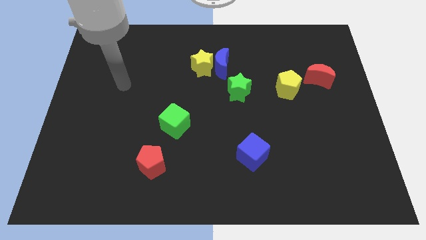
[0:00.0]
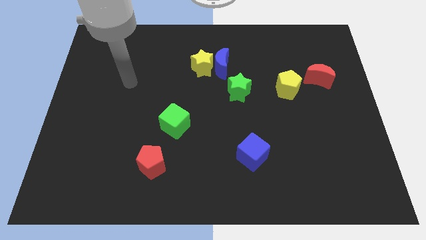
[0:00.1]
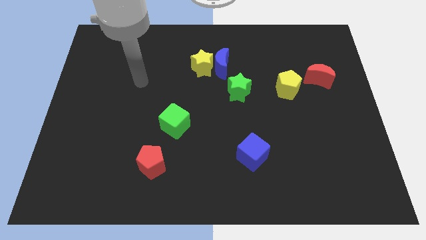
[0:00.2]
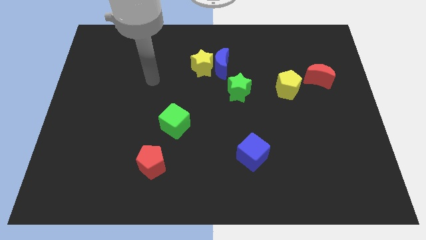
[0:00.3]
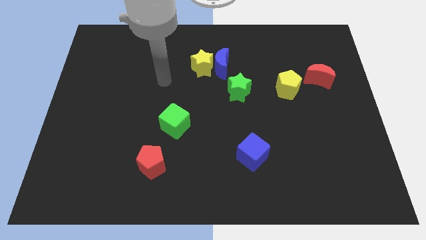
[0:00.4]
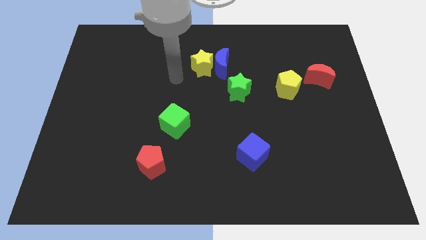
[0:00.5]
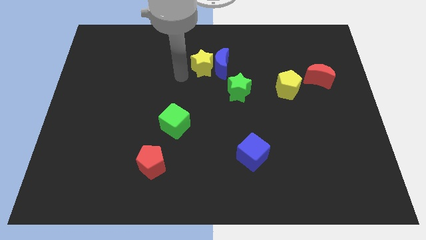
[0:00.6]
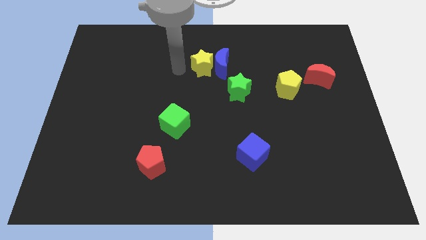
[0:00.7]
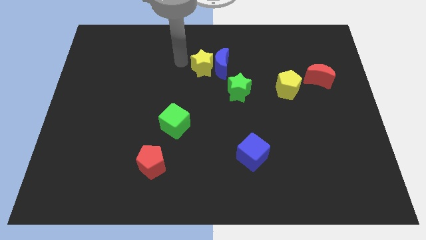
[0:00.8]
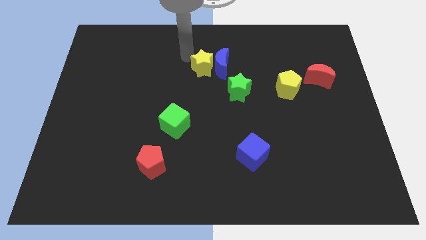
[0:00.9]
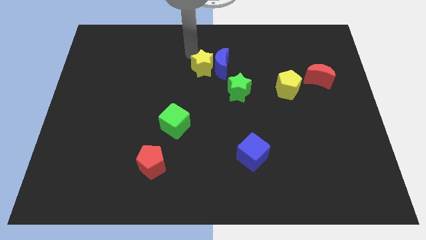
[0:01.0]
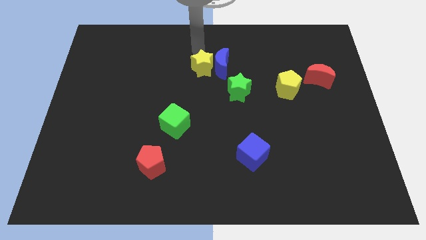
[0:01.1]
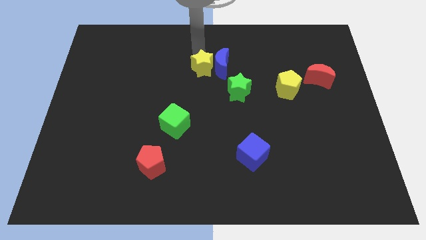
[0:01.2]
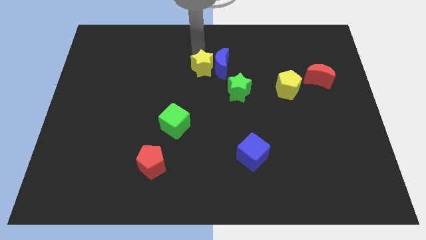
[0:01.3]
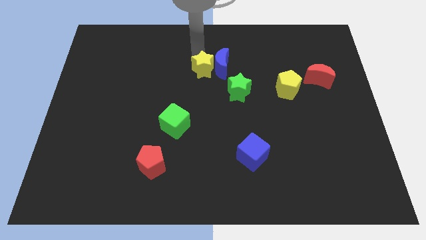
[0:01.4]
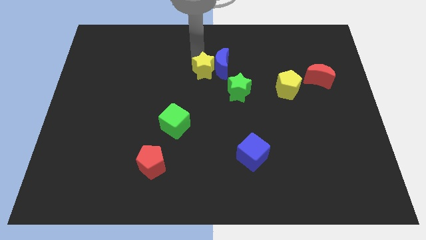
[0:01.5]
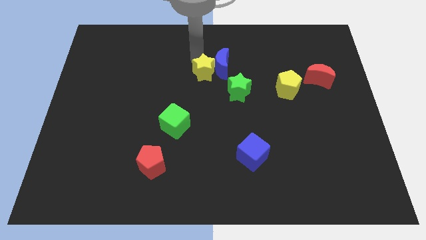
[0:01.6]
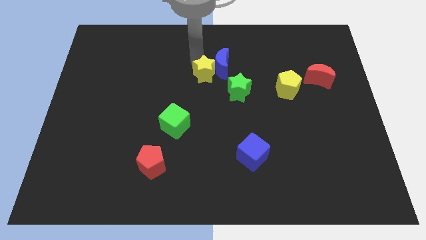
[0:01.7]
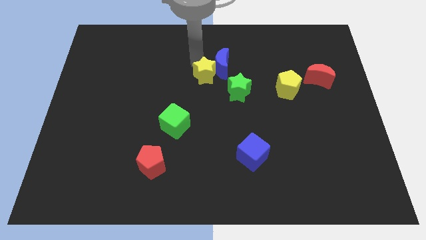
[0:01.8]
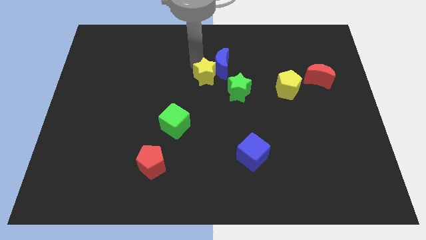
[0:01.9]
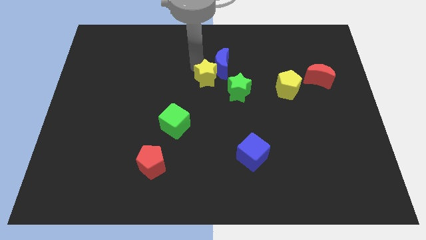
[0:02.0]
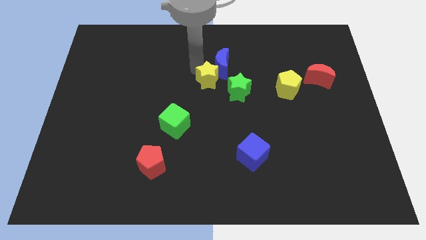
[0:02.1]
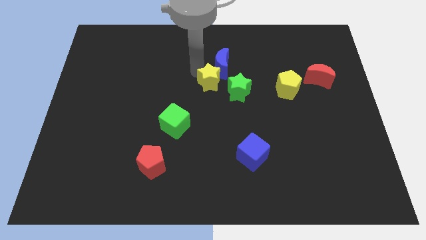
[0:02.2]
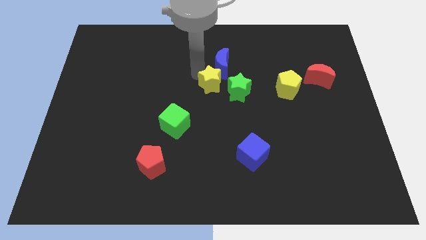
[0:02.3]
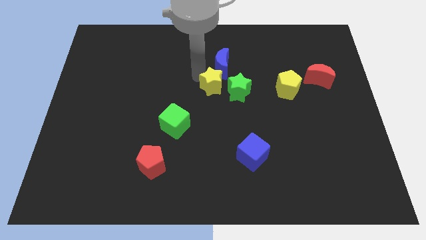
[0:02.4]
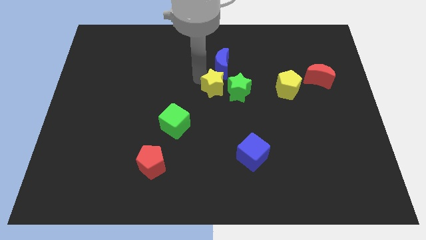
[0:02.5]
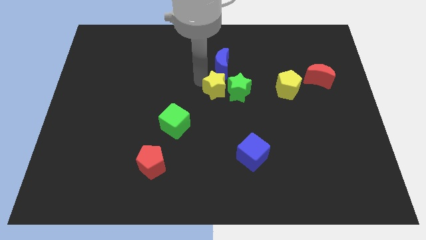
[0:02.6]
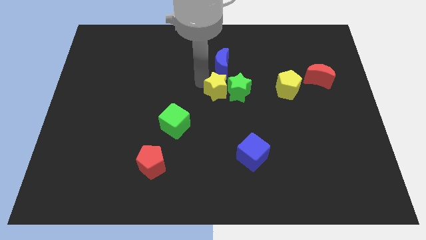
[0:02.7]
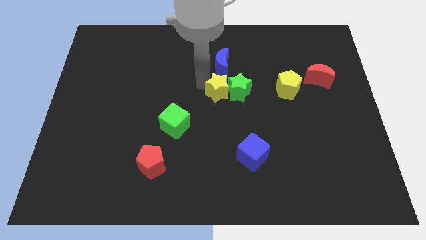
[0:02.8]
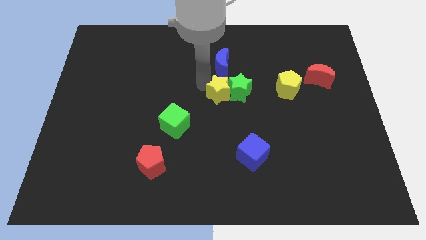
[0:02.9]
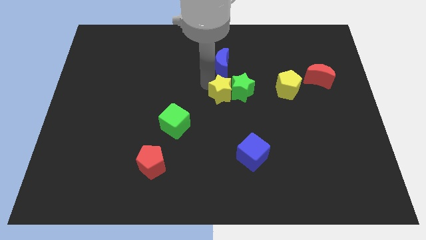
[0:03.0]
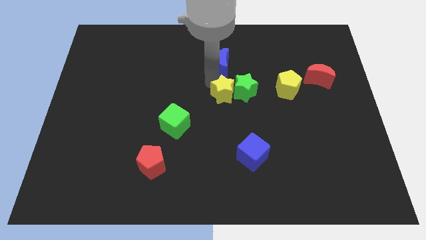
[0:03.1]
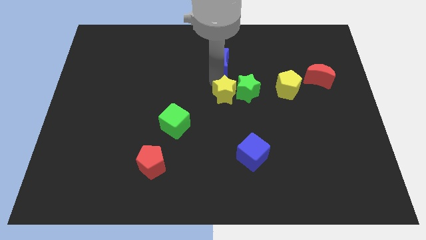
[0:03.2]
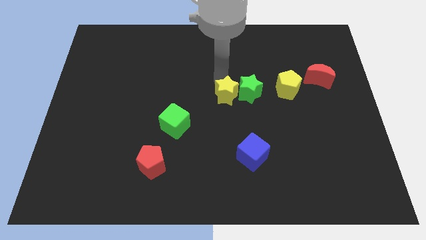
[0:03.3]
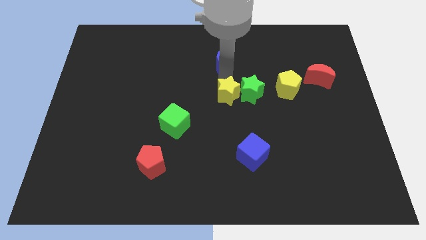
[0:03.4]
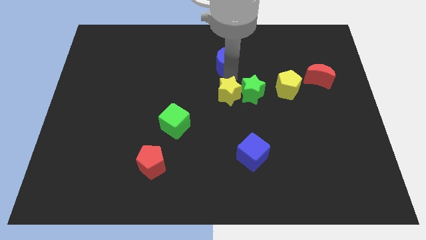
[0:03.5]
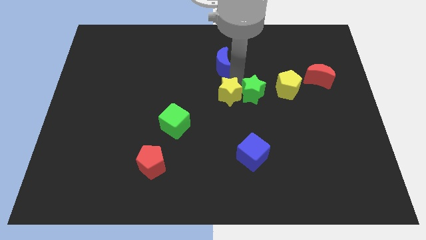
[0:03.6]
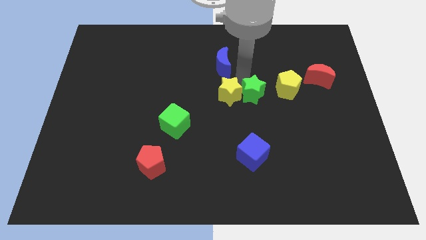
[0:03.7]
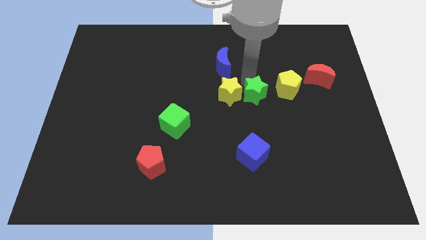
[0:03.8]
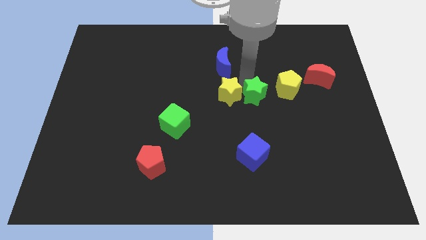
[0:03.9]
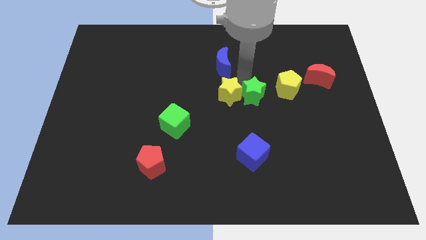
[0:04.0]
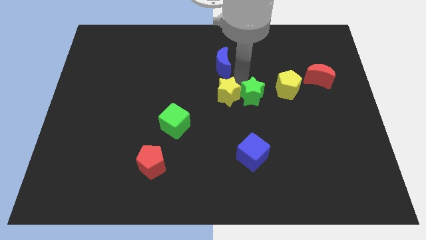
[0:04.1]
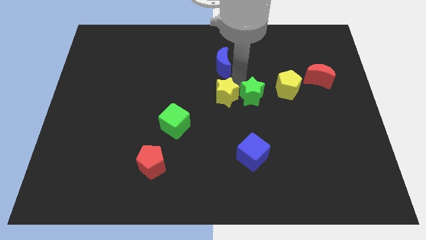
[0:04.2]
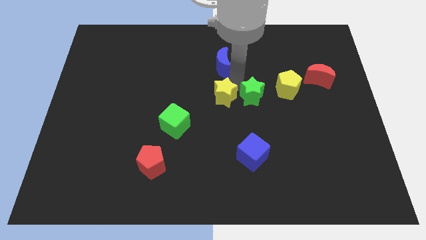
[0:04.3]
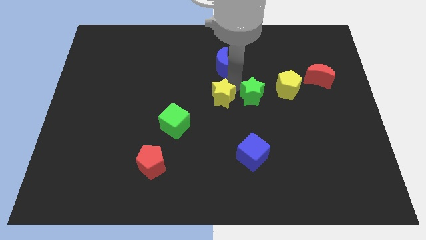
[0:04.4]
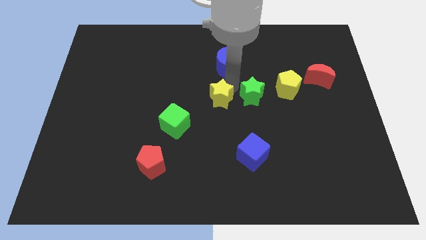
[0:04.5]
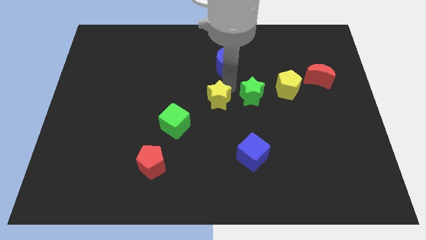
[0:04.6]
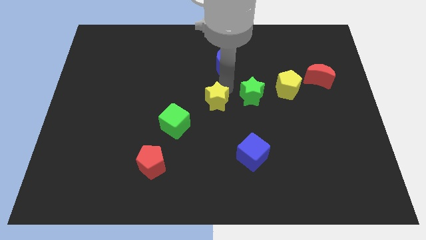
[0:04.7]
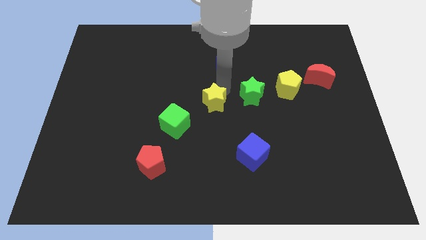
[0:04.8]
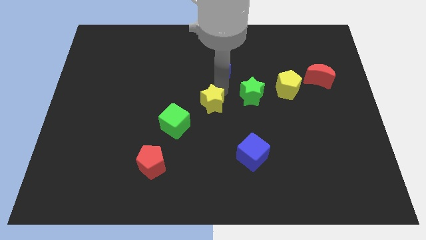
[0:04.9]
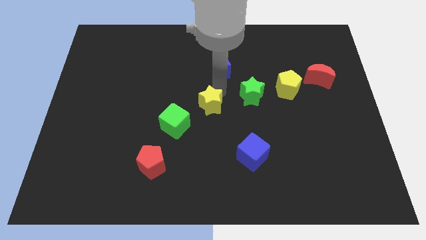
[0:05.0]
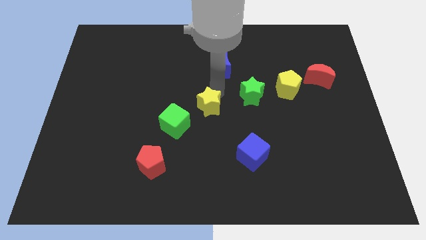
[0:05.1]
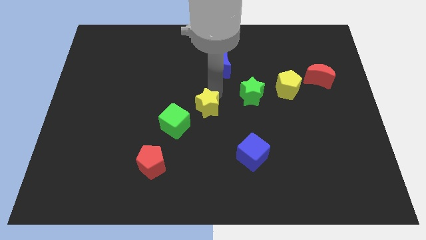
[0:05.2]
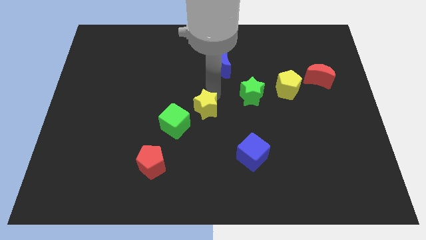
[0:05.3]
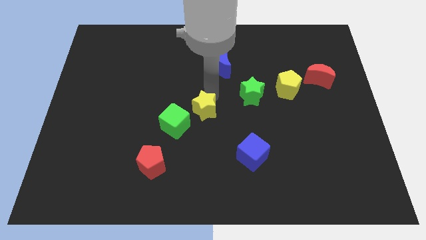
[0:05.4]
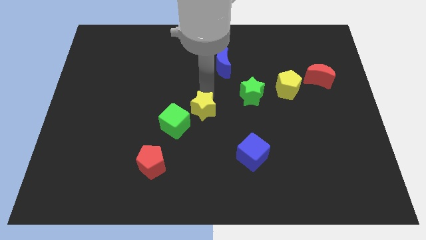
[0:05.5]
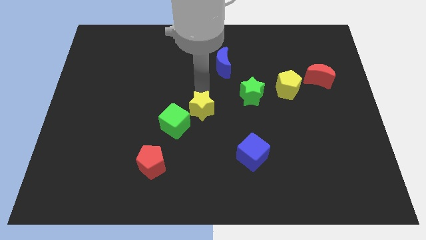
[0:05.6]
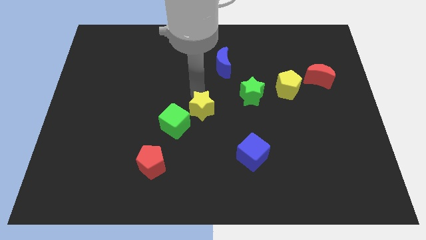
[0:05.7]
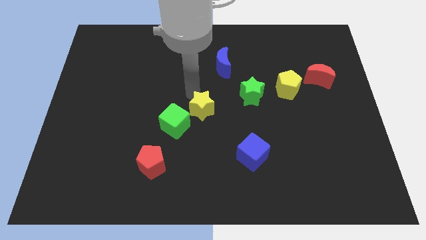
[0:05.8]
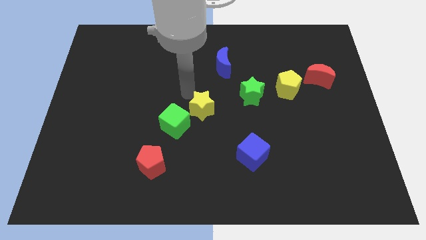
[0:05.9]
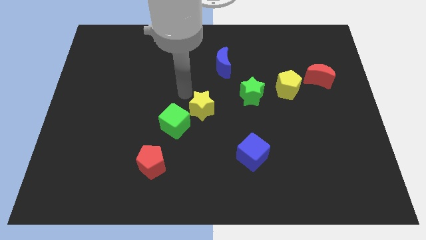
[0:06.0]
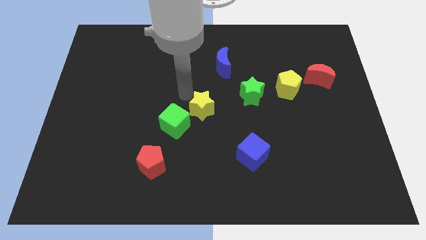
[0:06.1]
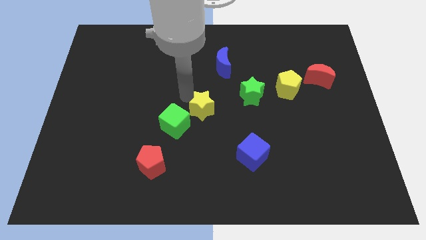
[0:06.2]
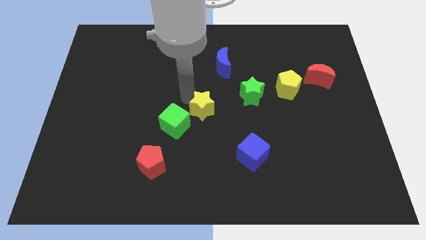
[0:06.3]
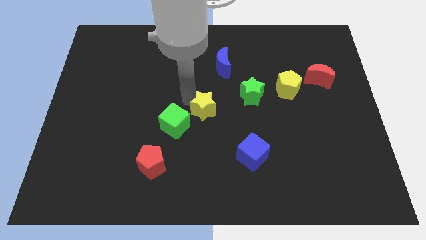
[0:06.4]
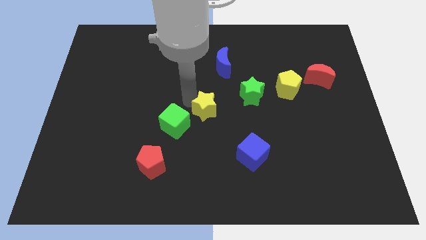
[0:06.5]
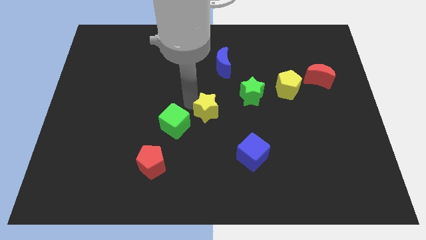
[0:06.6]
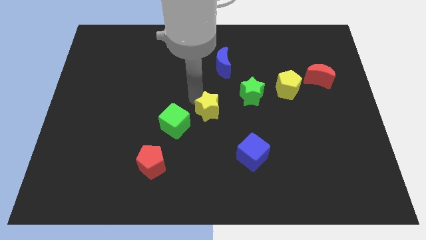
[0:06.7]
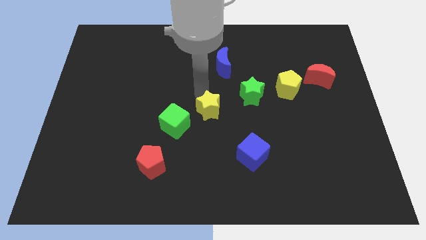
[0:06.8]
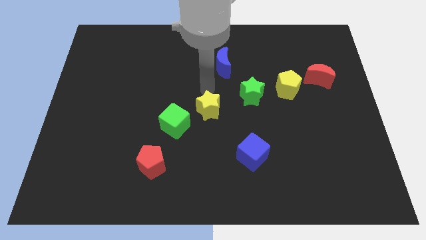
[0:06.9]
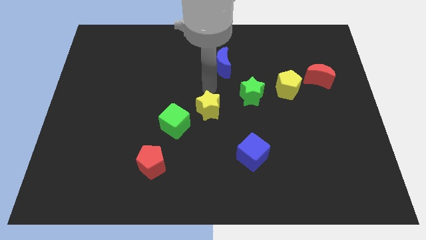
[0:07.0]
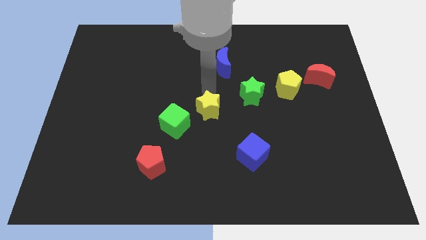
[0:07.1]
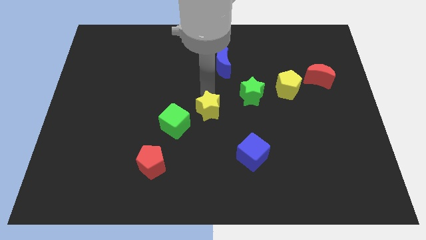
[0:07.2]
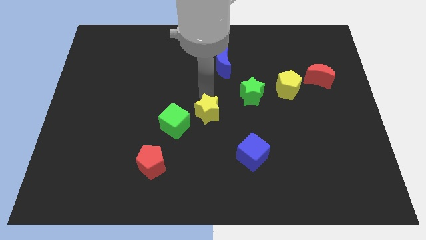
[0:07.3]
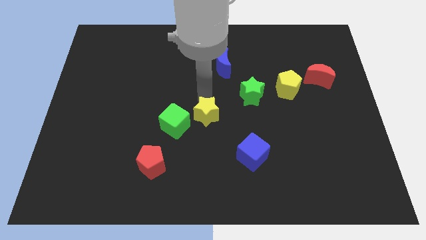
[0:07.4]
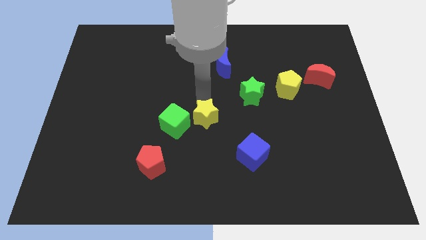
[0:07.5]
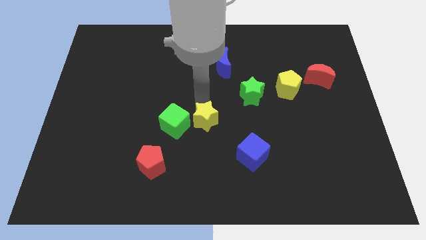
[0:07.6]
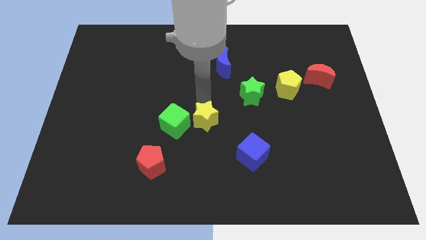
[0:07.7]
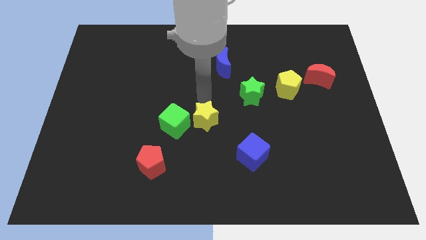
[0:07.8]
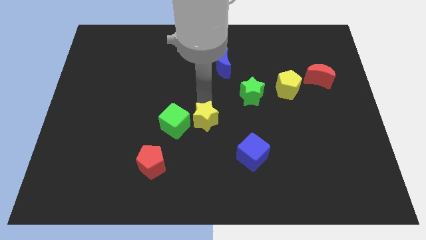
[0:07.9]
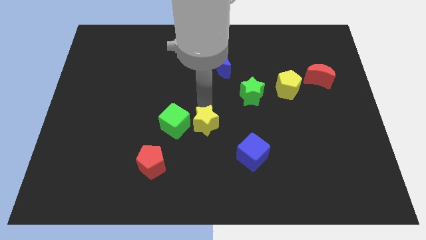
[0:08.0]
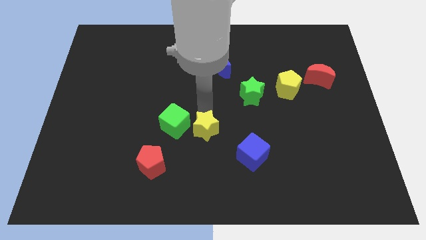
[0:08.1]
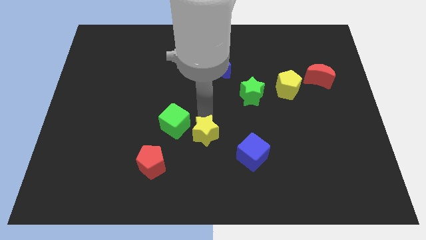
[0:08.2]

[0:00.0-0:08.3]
move the yellow star downwards
